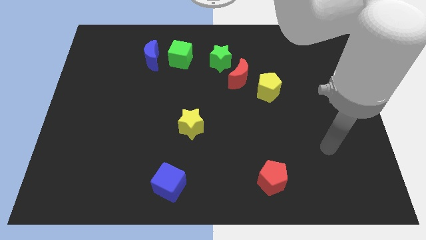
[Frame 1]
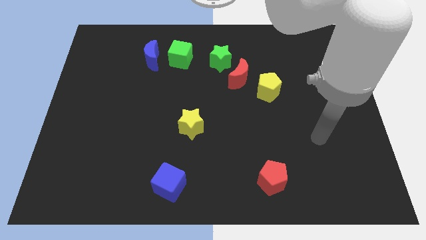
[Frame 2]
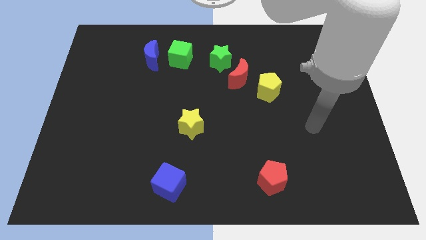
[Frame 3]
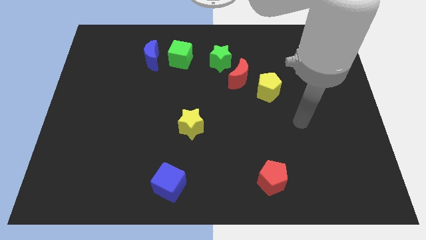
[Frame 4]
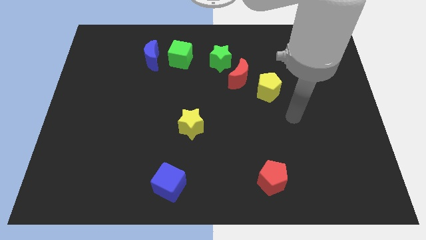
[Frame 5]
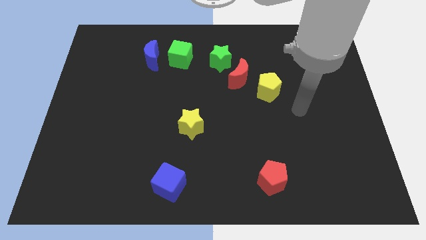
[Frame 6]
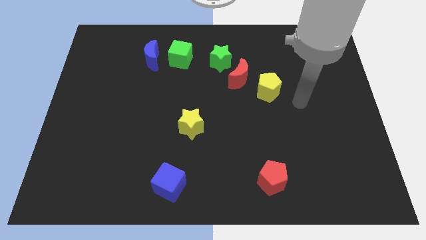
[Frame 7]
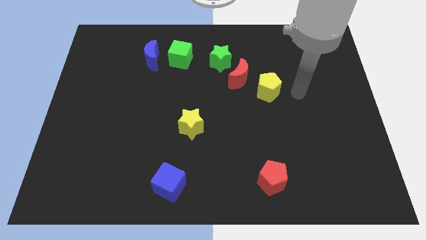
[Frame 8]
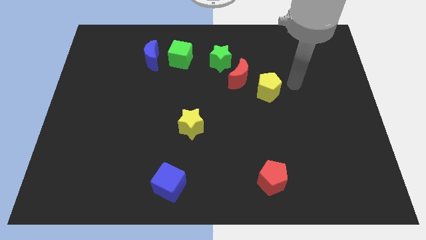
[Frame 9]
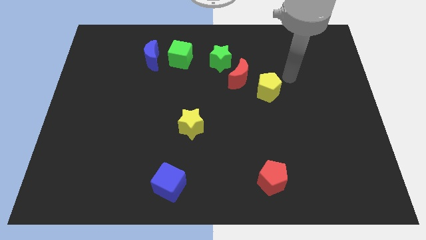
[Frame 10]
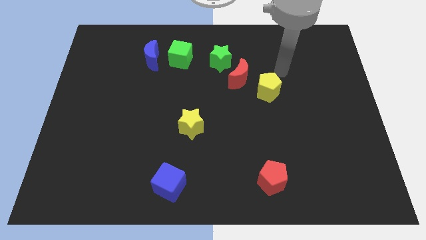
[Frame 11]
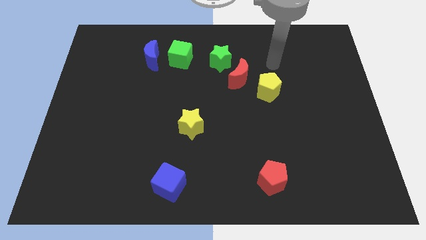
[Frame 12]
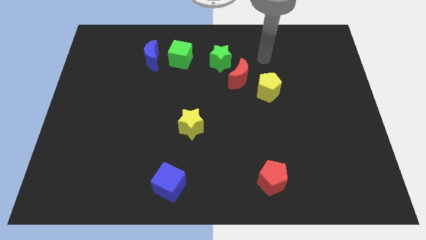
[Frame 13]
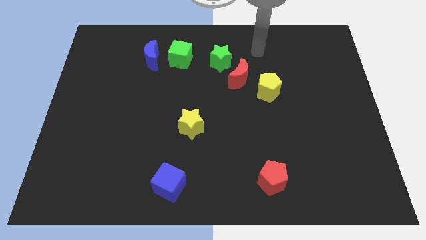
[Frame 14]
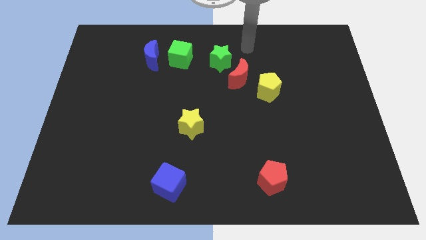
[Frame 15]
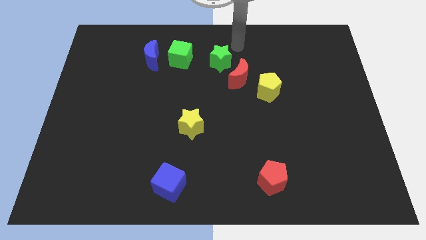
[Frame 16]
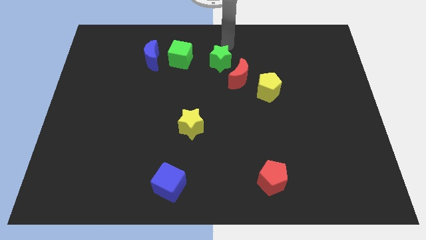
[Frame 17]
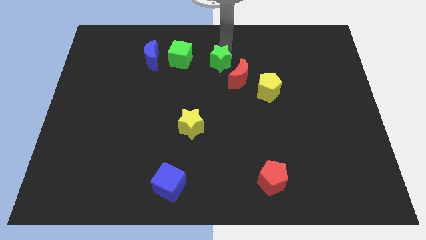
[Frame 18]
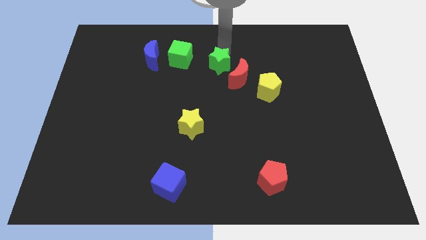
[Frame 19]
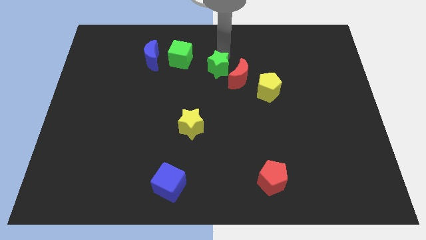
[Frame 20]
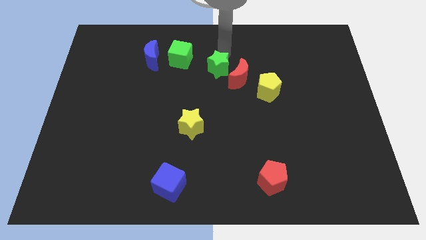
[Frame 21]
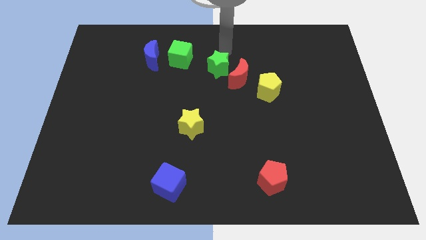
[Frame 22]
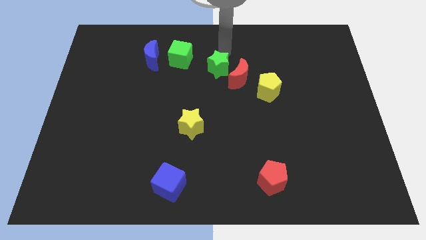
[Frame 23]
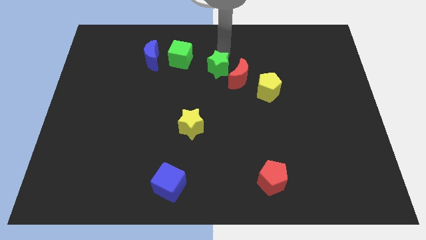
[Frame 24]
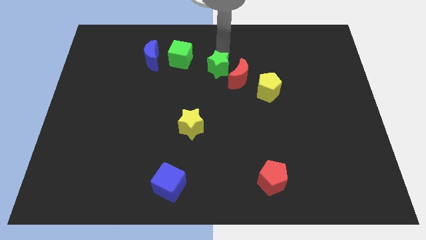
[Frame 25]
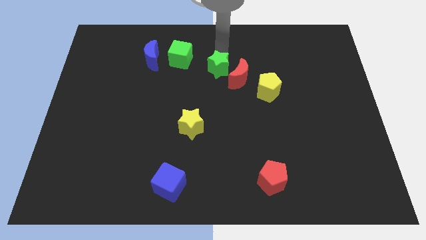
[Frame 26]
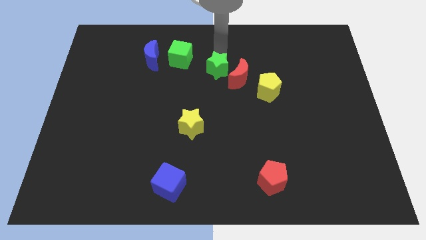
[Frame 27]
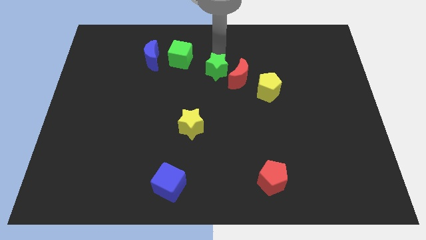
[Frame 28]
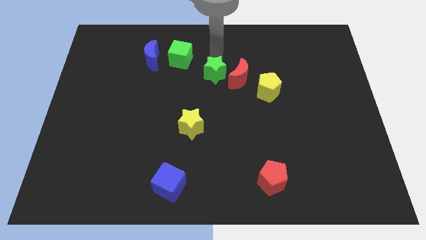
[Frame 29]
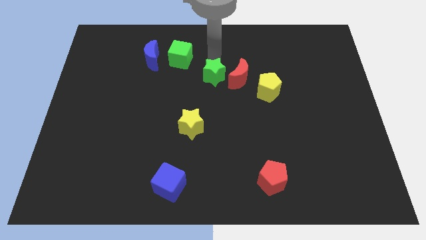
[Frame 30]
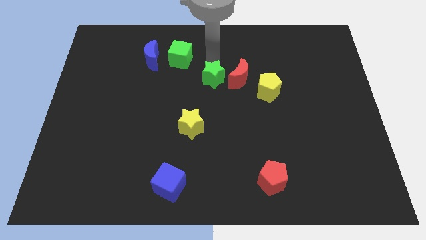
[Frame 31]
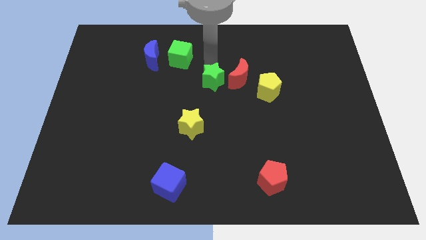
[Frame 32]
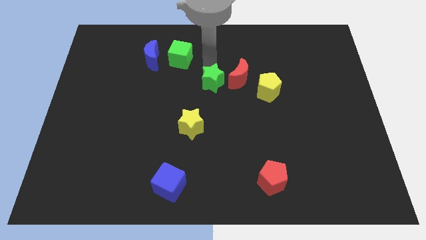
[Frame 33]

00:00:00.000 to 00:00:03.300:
slightly push the green star downwards

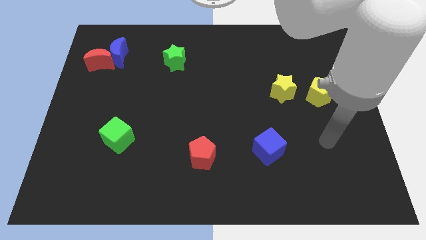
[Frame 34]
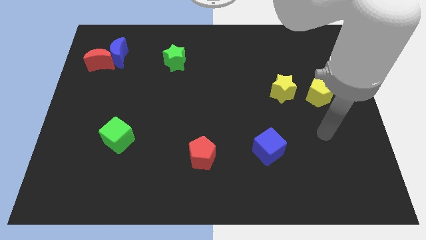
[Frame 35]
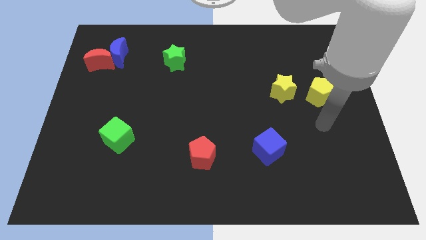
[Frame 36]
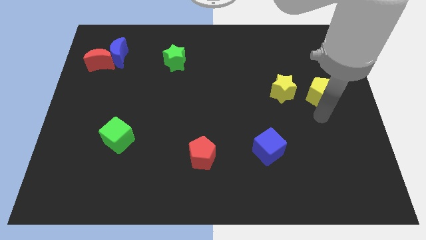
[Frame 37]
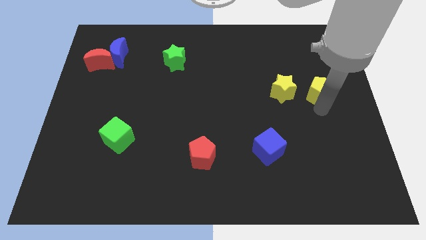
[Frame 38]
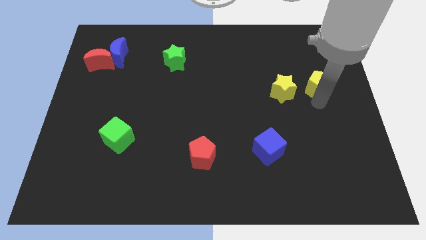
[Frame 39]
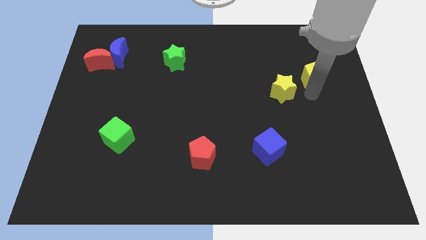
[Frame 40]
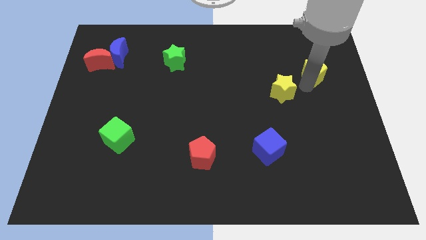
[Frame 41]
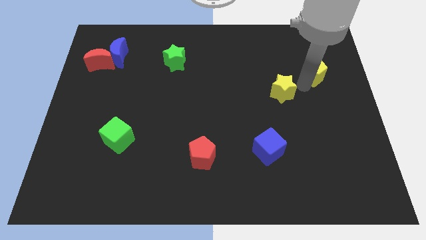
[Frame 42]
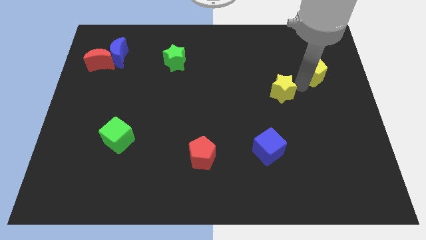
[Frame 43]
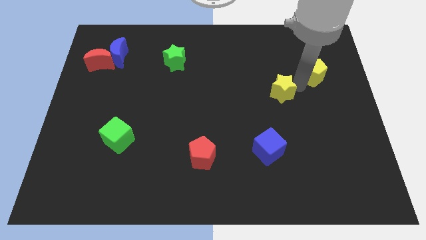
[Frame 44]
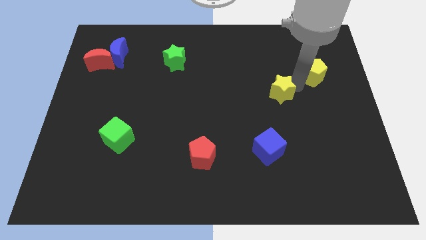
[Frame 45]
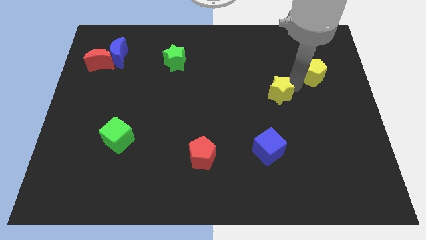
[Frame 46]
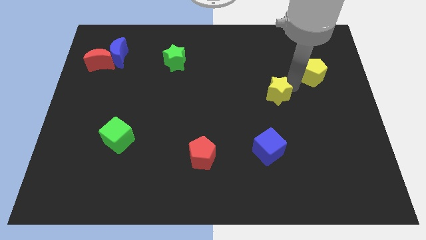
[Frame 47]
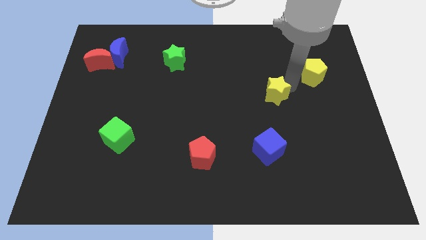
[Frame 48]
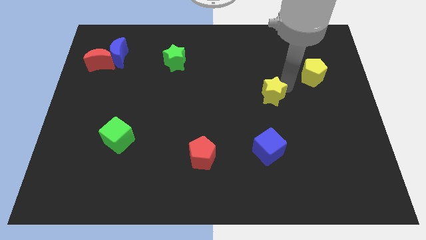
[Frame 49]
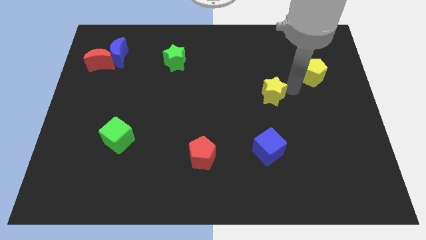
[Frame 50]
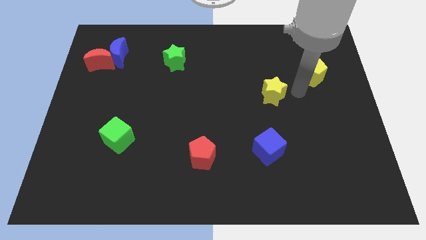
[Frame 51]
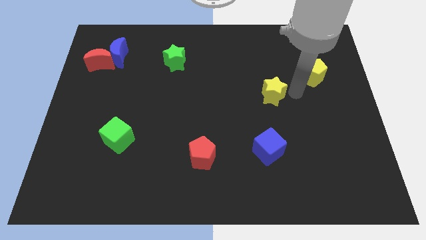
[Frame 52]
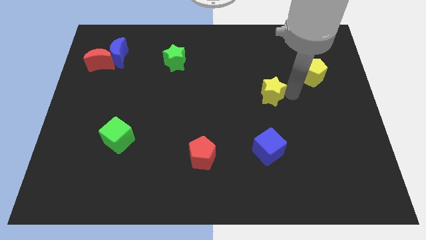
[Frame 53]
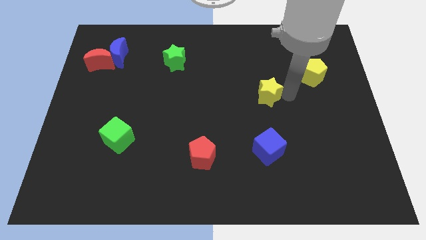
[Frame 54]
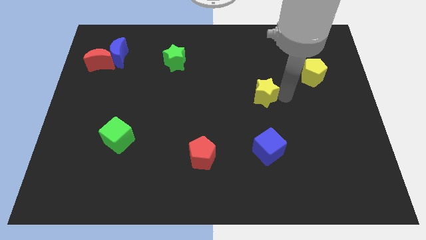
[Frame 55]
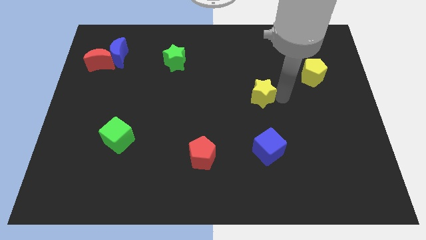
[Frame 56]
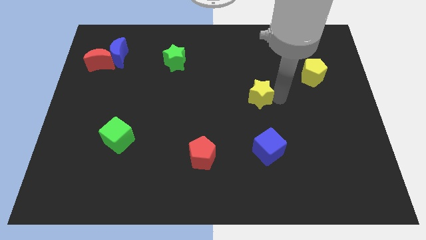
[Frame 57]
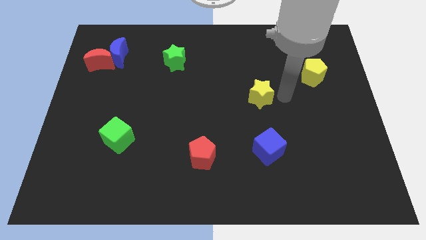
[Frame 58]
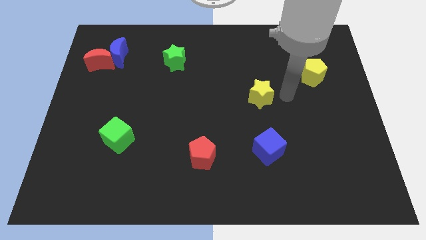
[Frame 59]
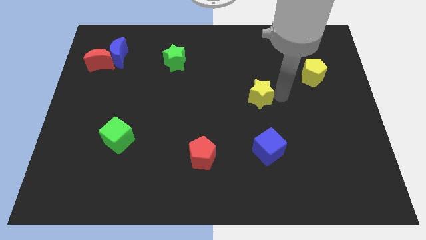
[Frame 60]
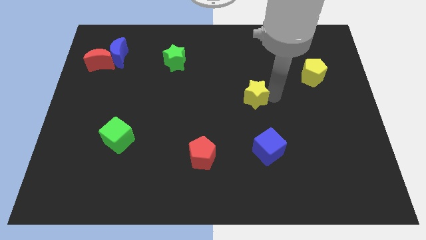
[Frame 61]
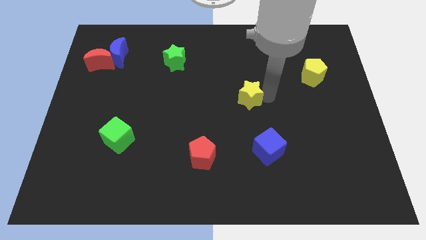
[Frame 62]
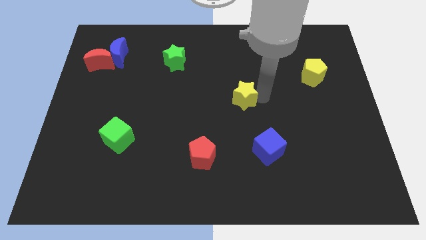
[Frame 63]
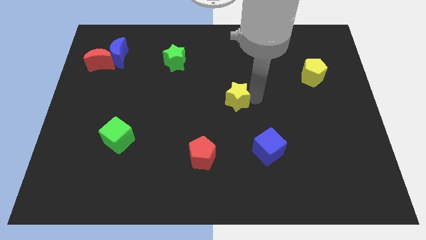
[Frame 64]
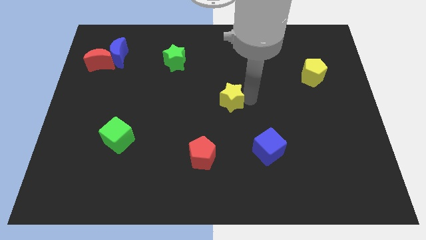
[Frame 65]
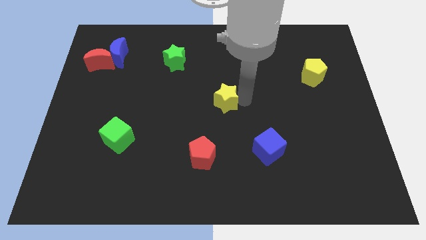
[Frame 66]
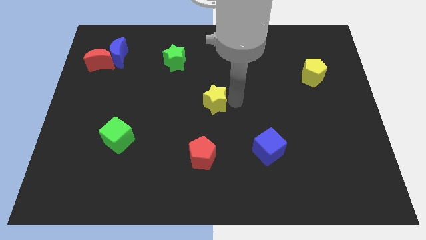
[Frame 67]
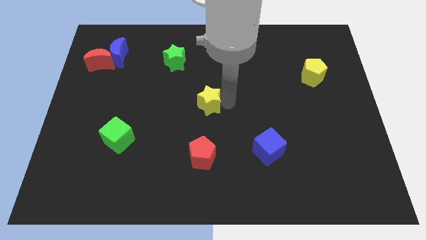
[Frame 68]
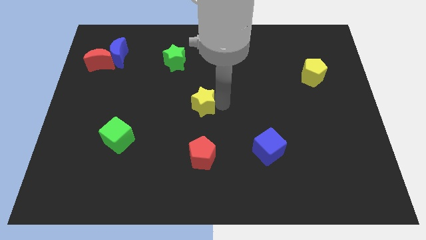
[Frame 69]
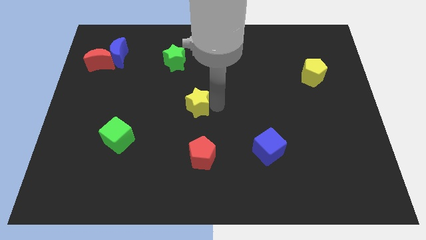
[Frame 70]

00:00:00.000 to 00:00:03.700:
move the yellow star to the left

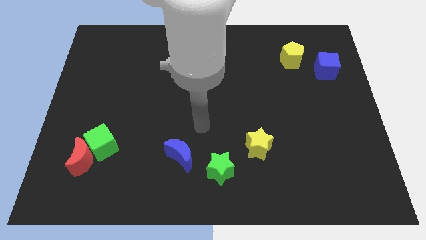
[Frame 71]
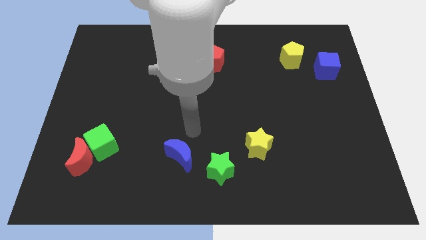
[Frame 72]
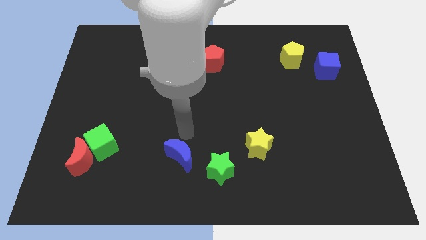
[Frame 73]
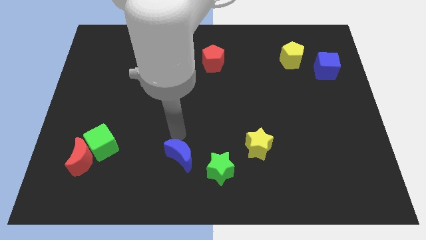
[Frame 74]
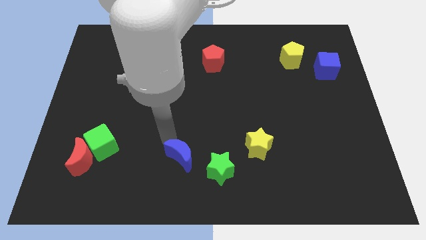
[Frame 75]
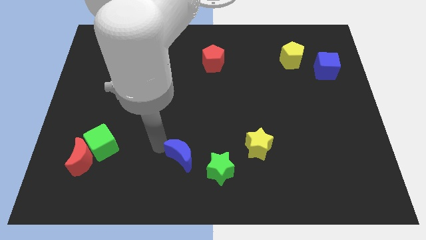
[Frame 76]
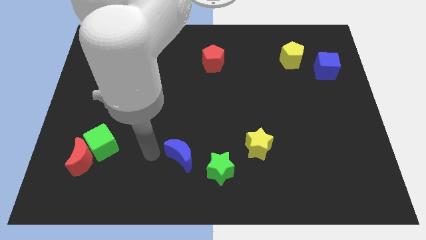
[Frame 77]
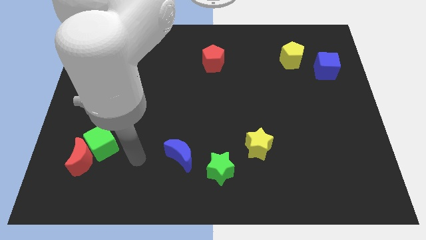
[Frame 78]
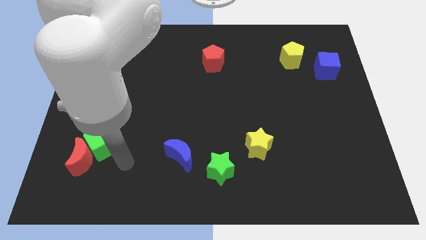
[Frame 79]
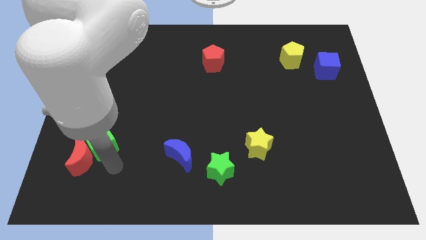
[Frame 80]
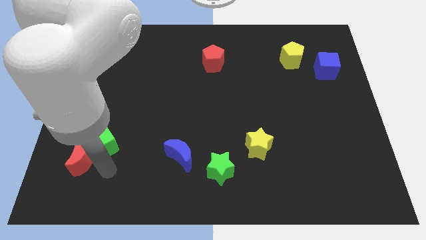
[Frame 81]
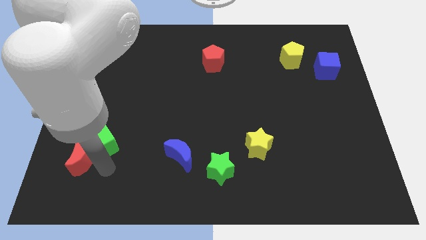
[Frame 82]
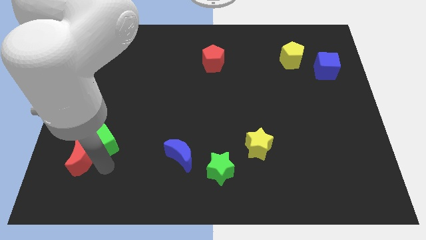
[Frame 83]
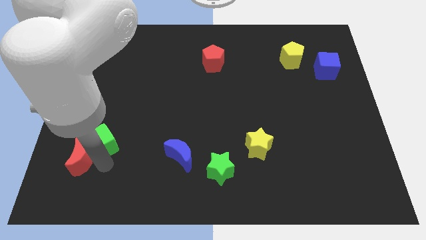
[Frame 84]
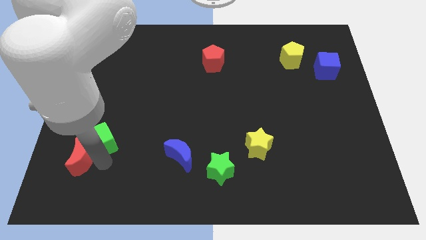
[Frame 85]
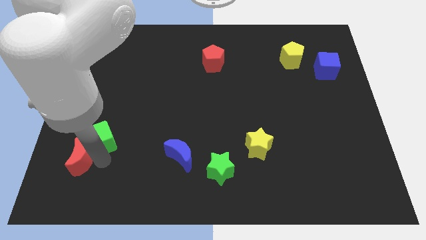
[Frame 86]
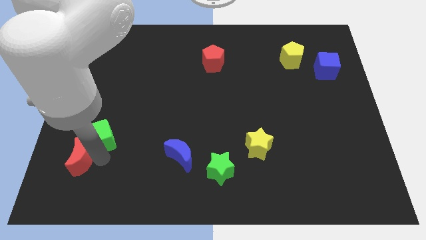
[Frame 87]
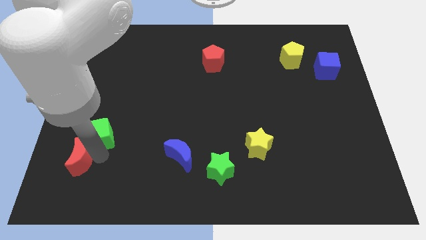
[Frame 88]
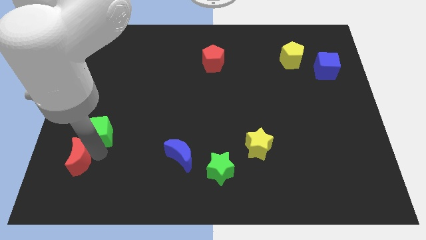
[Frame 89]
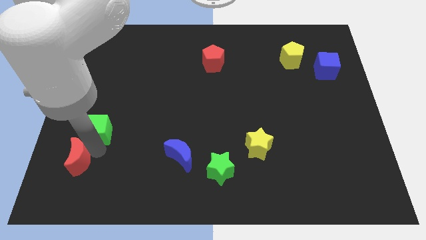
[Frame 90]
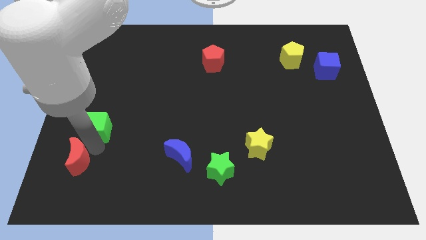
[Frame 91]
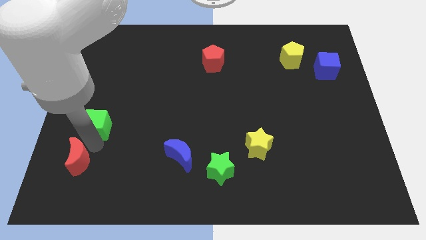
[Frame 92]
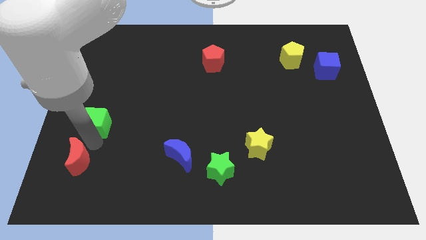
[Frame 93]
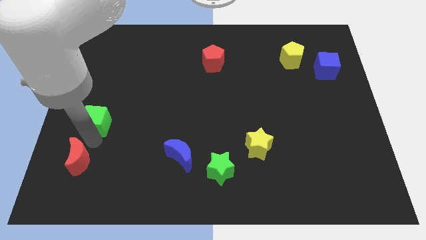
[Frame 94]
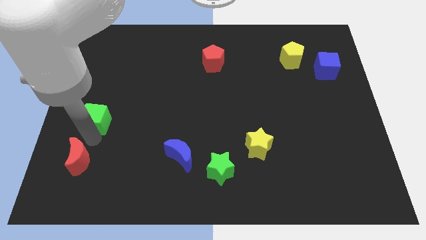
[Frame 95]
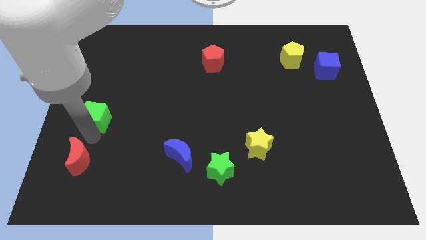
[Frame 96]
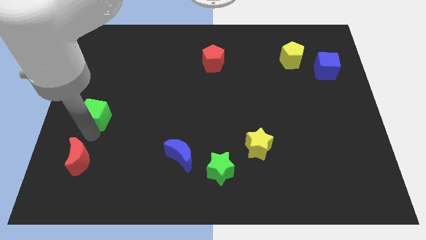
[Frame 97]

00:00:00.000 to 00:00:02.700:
slide the green cube a little bit upwards
